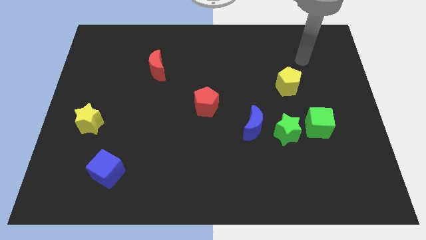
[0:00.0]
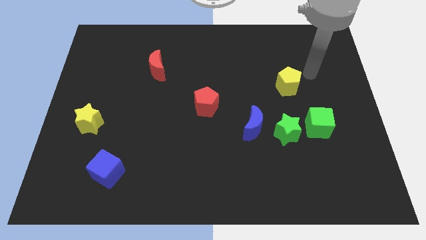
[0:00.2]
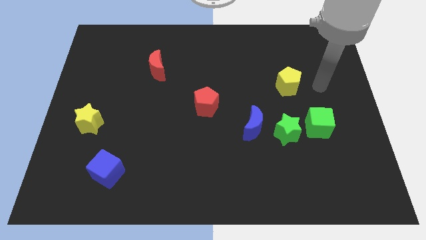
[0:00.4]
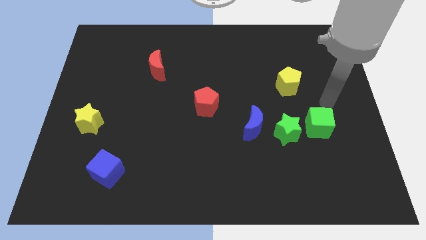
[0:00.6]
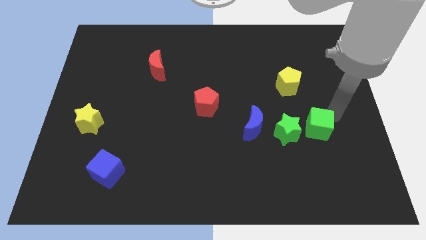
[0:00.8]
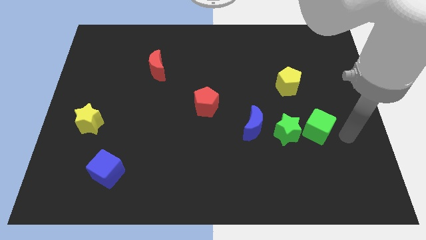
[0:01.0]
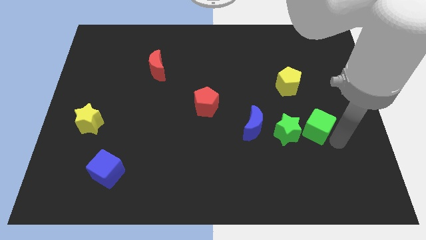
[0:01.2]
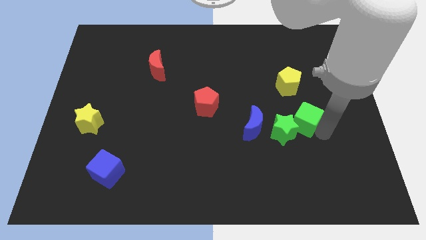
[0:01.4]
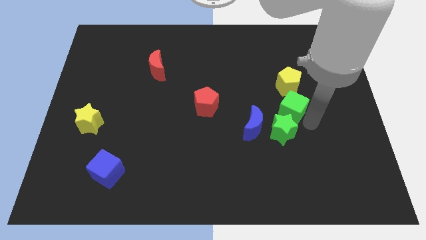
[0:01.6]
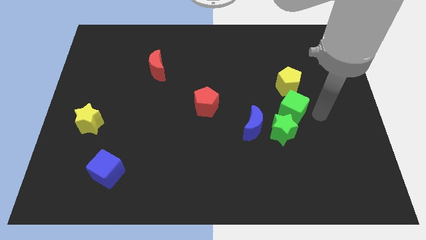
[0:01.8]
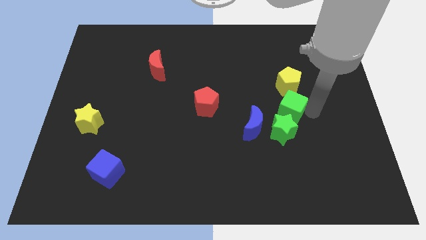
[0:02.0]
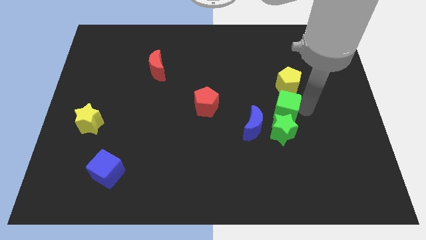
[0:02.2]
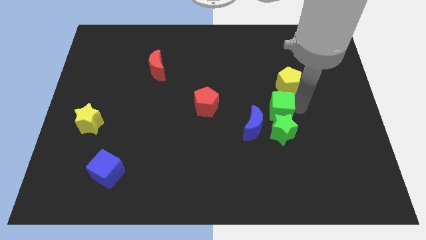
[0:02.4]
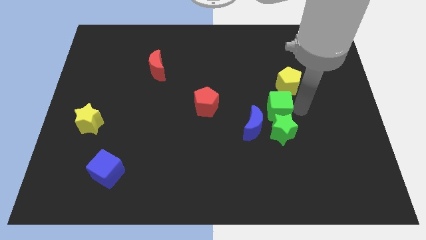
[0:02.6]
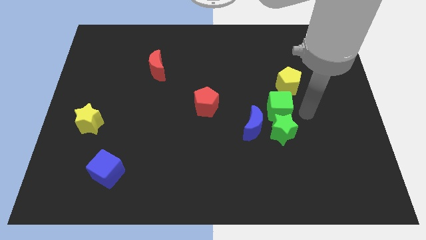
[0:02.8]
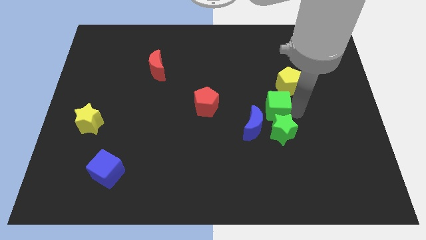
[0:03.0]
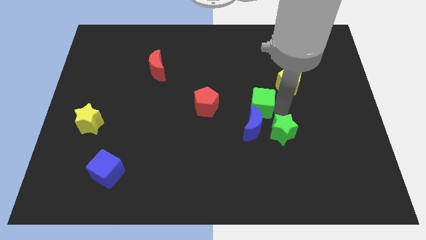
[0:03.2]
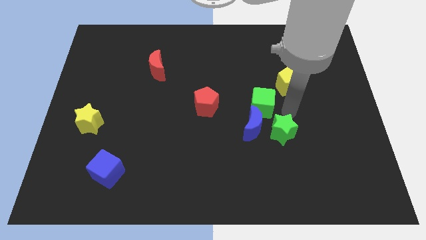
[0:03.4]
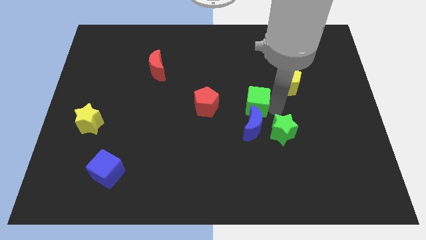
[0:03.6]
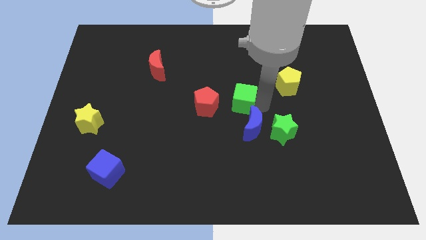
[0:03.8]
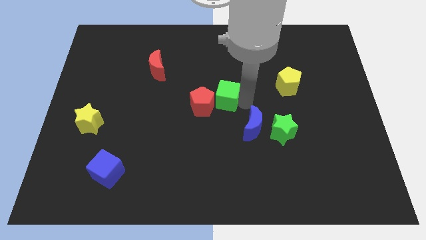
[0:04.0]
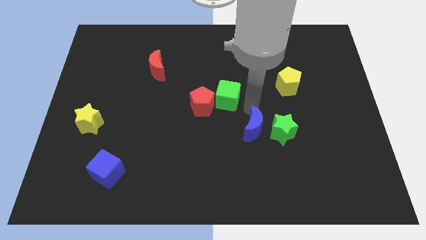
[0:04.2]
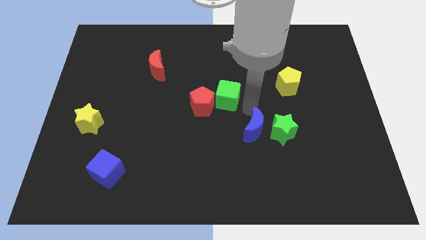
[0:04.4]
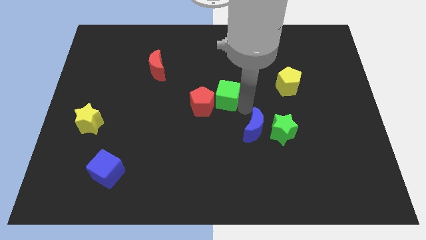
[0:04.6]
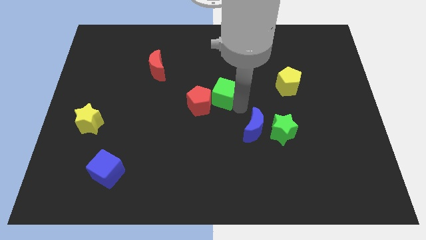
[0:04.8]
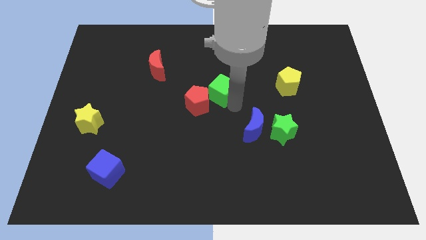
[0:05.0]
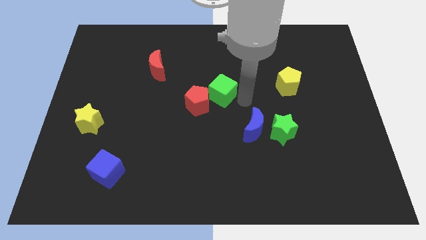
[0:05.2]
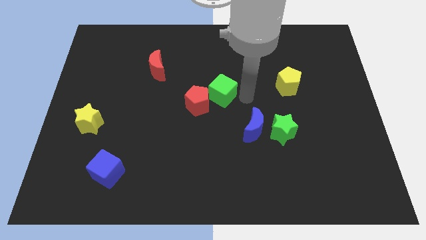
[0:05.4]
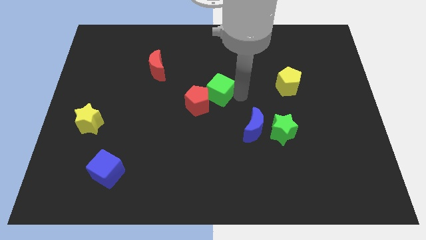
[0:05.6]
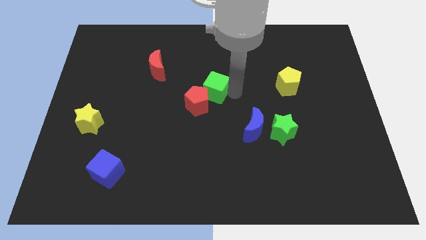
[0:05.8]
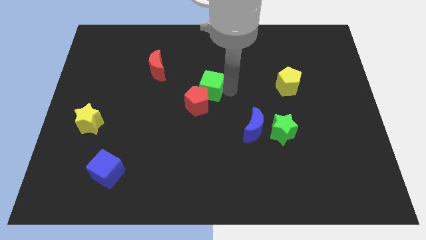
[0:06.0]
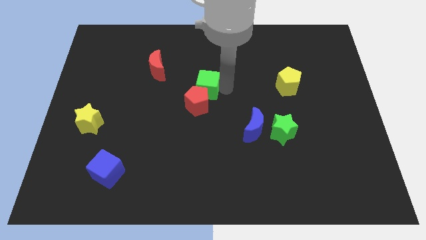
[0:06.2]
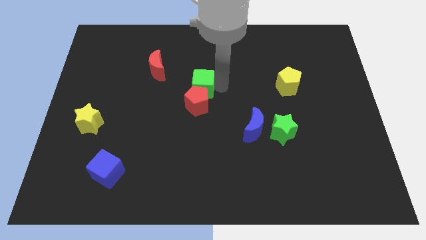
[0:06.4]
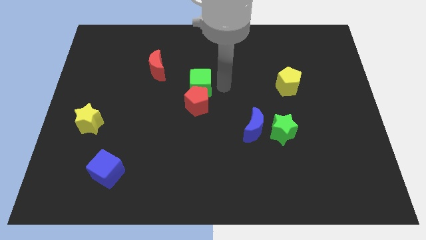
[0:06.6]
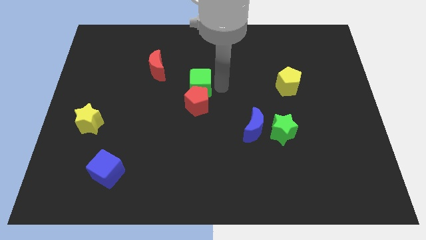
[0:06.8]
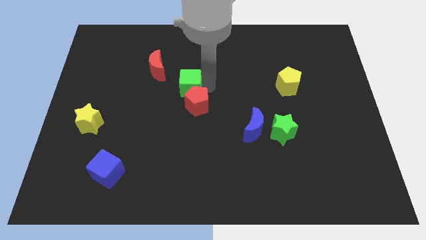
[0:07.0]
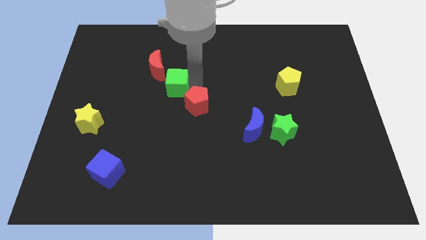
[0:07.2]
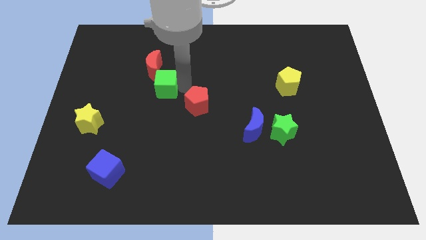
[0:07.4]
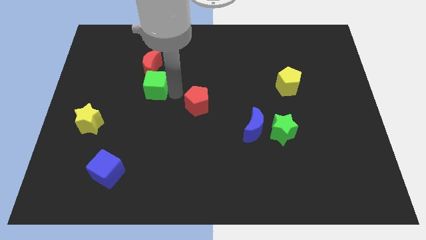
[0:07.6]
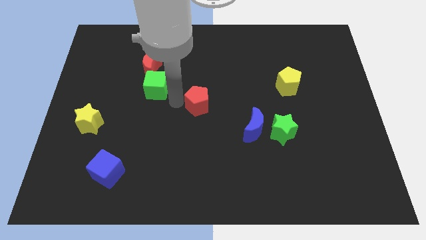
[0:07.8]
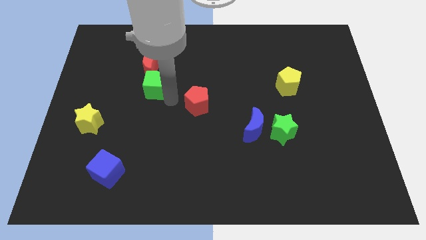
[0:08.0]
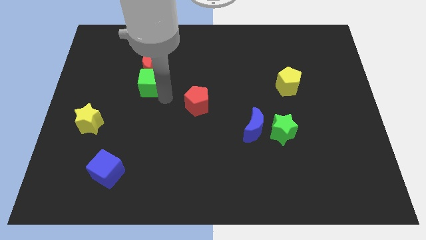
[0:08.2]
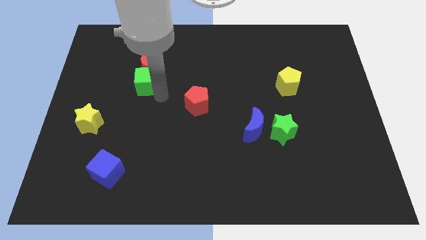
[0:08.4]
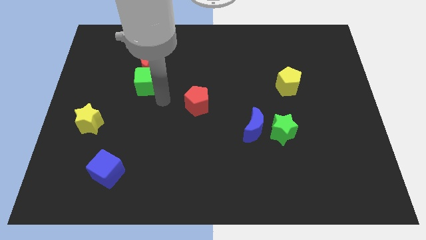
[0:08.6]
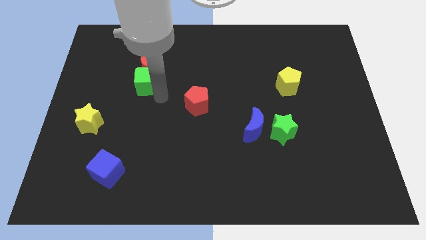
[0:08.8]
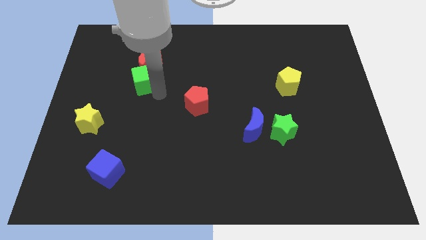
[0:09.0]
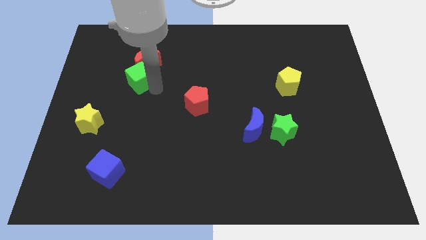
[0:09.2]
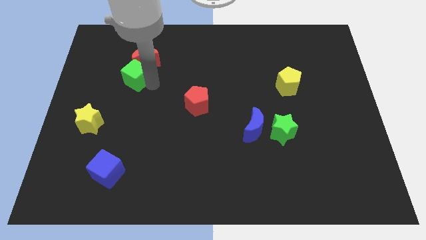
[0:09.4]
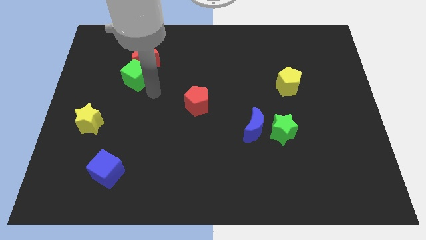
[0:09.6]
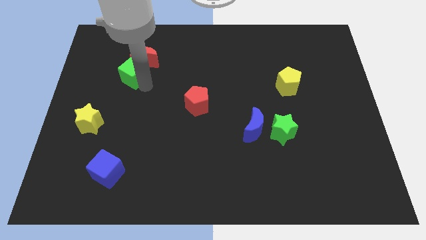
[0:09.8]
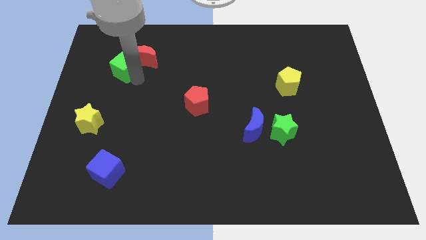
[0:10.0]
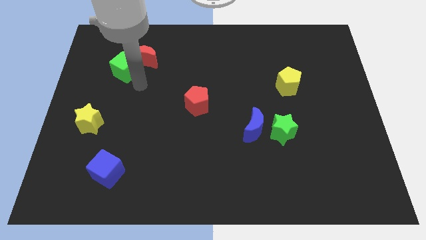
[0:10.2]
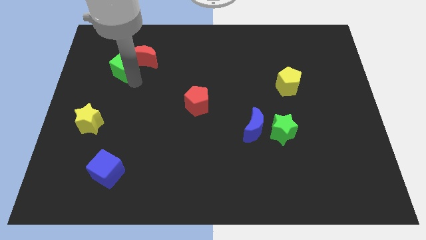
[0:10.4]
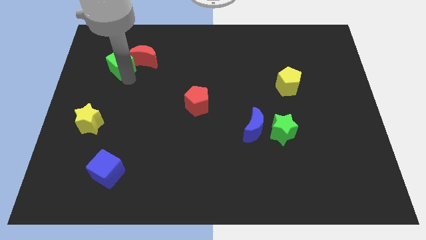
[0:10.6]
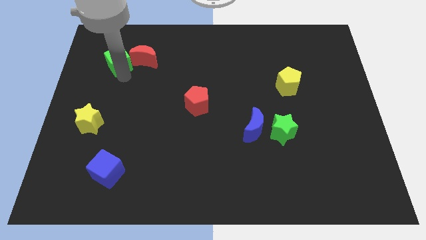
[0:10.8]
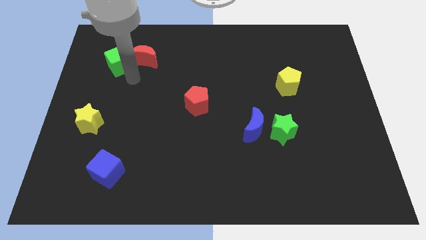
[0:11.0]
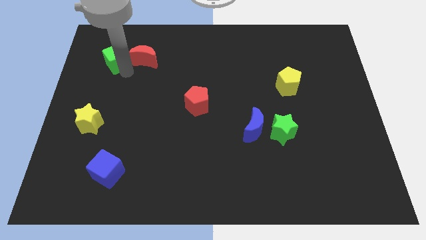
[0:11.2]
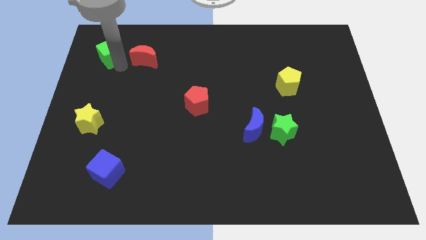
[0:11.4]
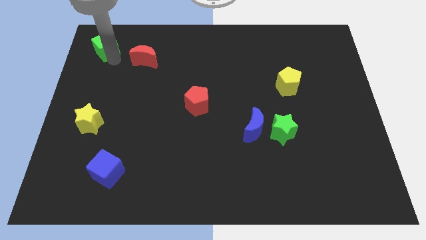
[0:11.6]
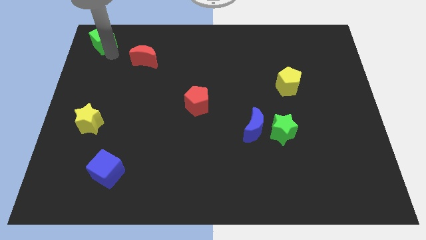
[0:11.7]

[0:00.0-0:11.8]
move the green cube to the top left

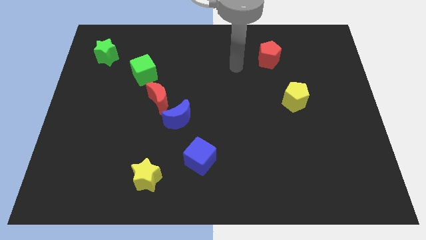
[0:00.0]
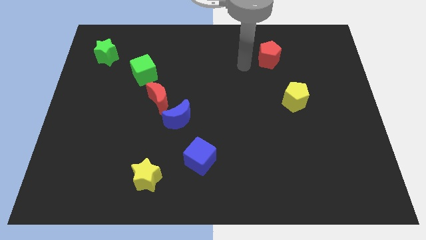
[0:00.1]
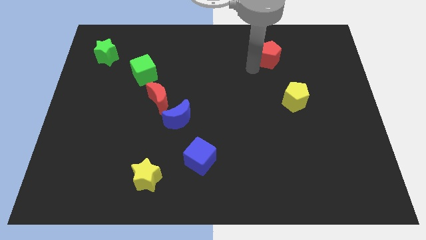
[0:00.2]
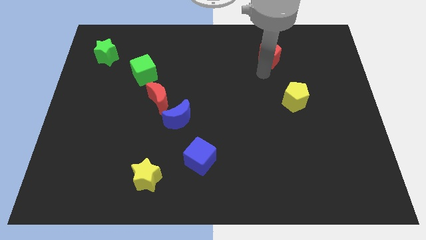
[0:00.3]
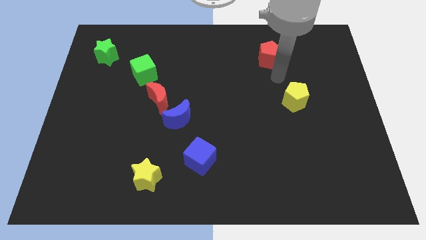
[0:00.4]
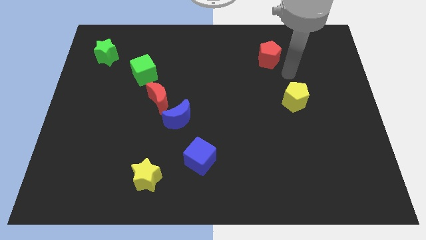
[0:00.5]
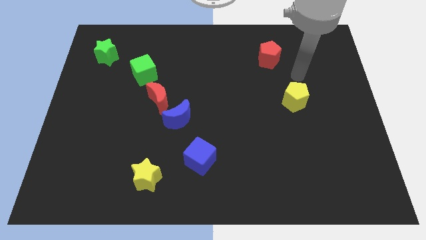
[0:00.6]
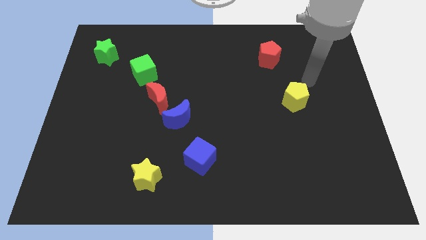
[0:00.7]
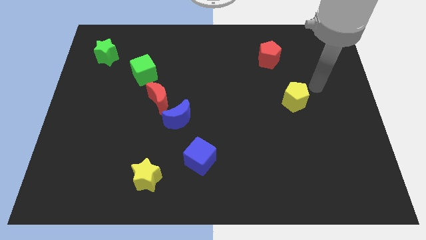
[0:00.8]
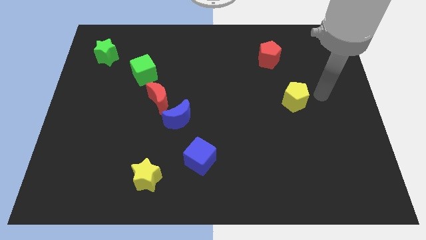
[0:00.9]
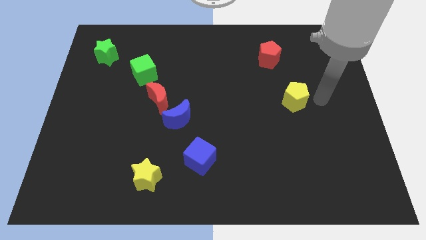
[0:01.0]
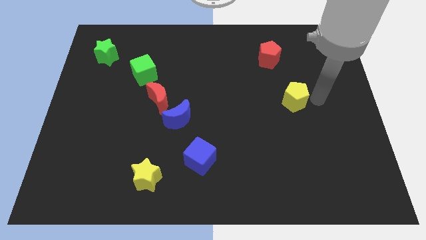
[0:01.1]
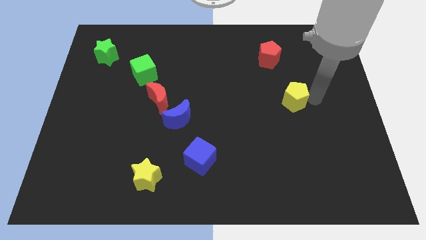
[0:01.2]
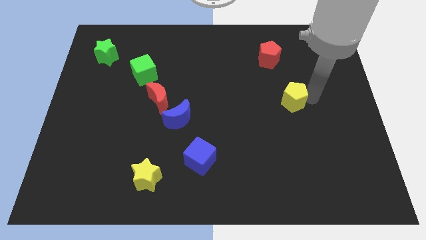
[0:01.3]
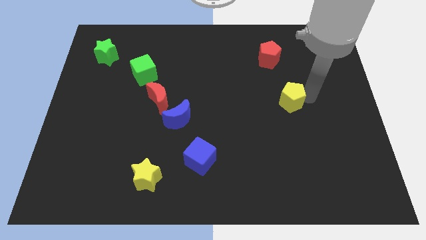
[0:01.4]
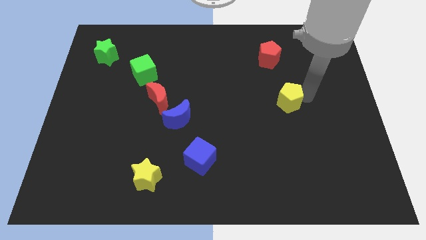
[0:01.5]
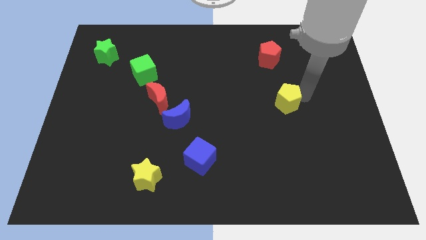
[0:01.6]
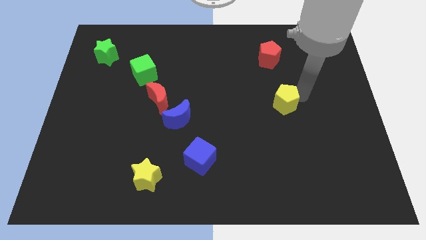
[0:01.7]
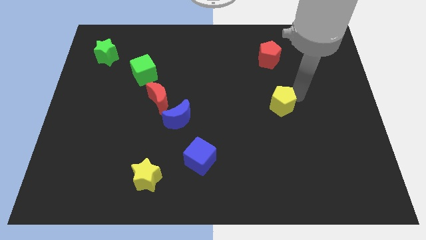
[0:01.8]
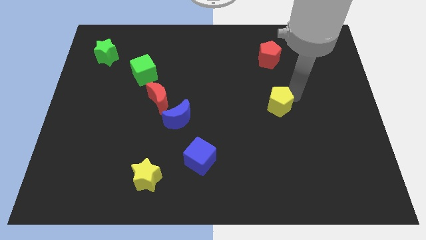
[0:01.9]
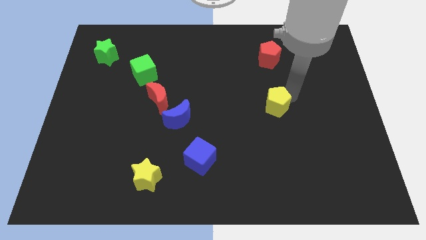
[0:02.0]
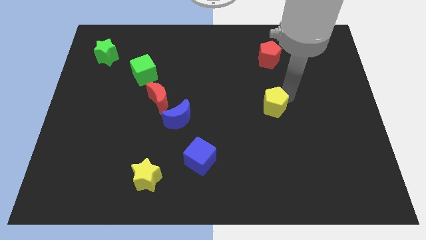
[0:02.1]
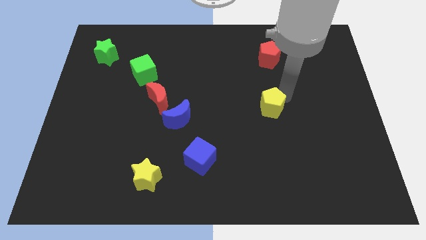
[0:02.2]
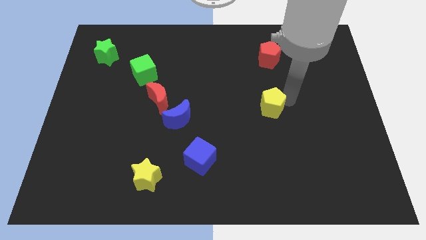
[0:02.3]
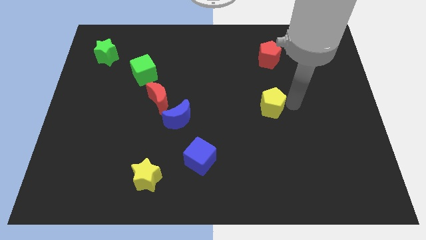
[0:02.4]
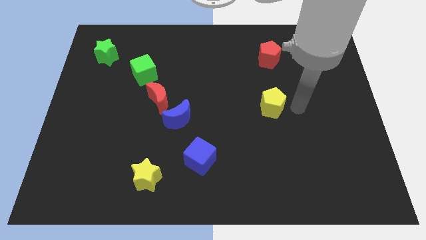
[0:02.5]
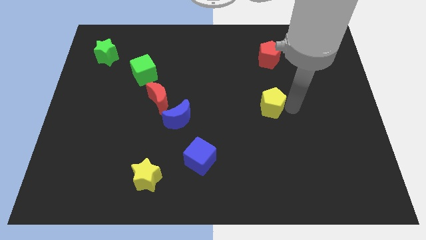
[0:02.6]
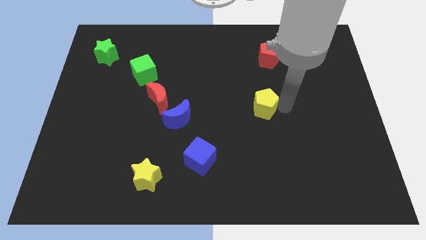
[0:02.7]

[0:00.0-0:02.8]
move the yellow pentagon to the middle
